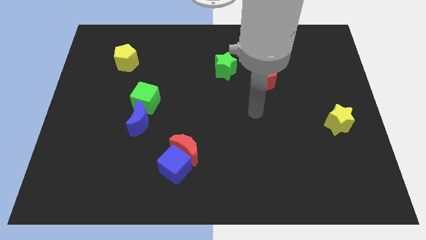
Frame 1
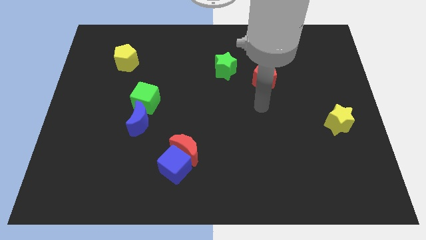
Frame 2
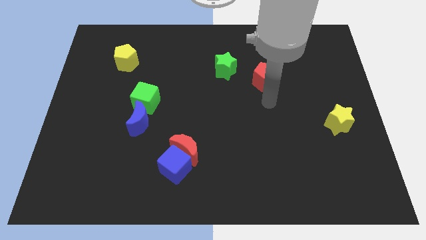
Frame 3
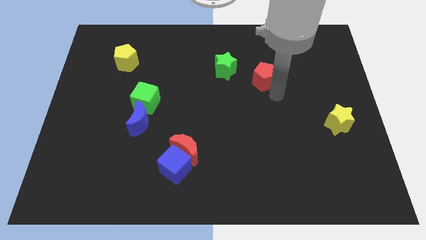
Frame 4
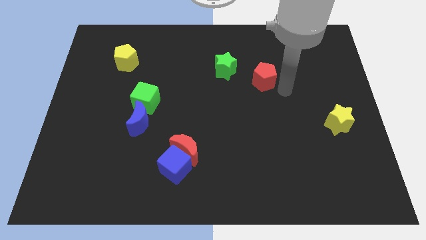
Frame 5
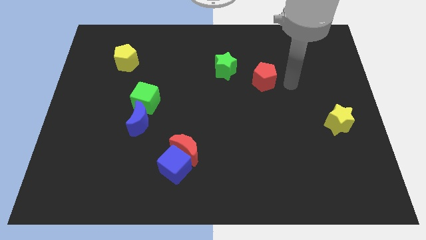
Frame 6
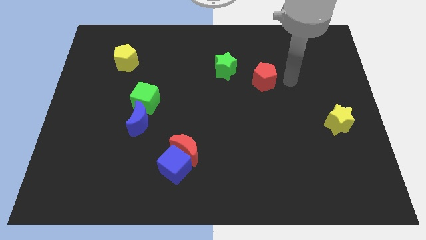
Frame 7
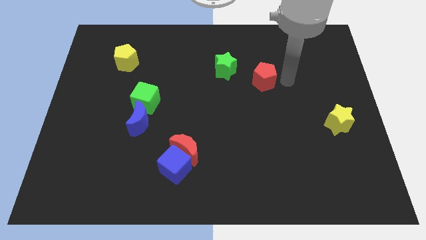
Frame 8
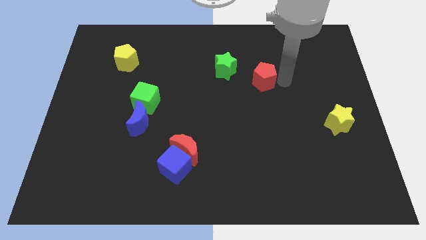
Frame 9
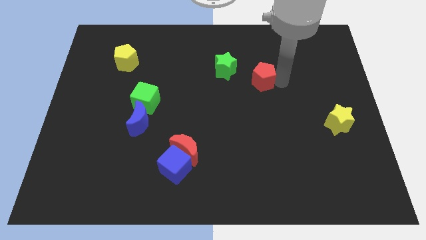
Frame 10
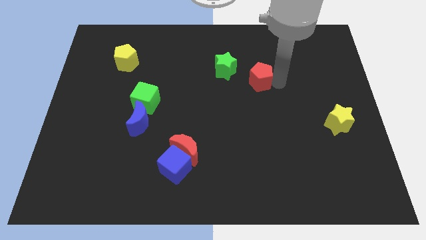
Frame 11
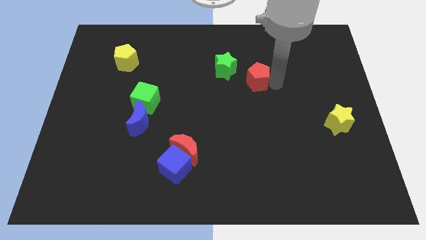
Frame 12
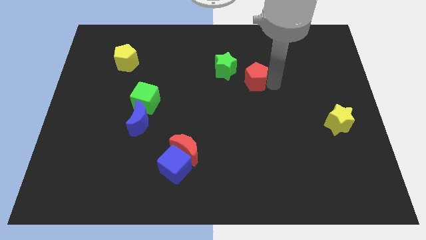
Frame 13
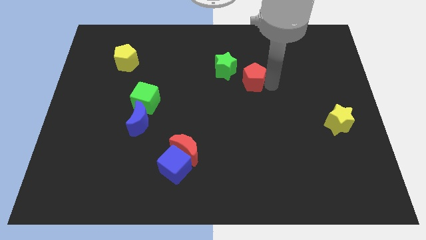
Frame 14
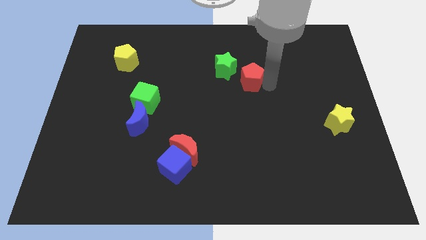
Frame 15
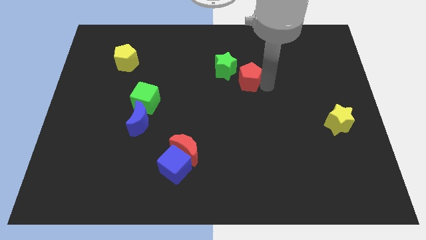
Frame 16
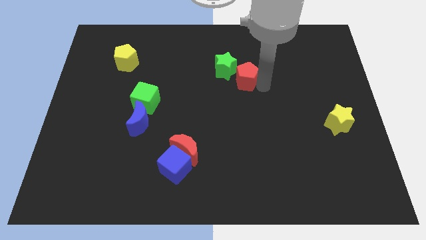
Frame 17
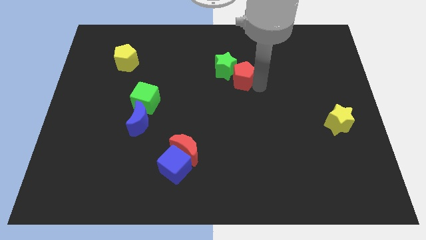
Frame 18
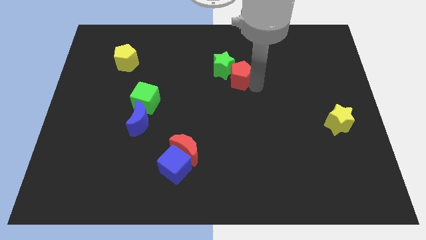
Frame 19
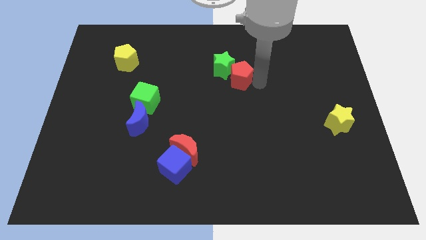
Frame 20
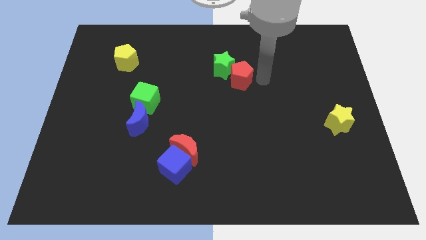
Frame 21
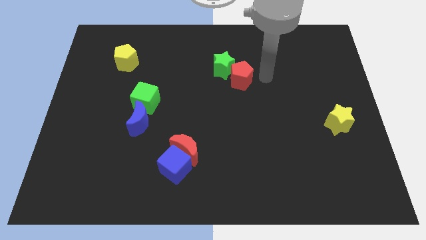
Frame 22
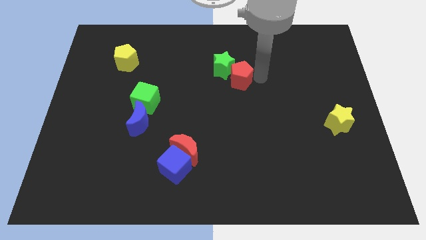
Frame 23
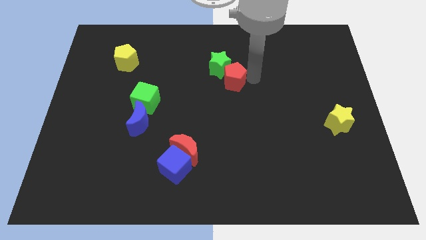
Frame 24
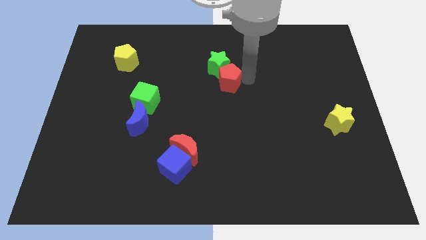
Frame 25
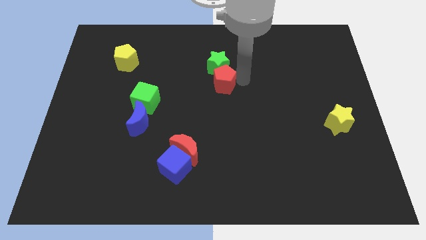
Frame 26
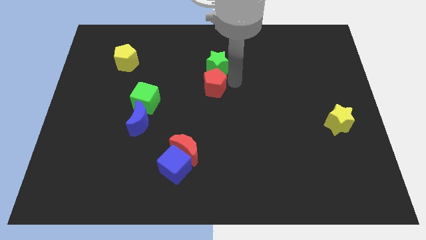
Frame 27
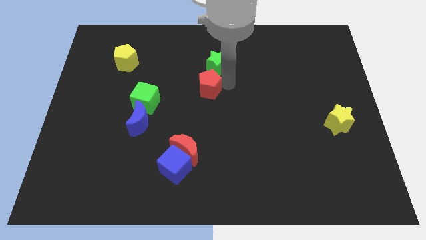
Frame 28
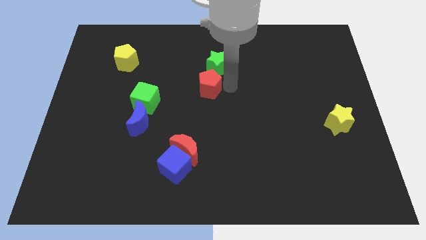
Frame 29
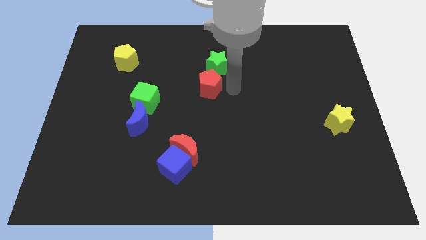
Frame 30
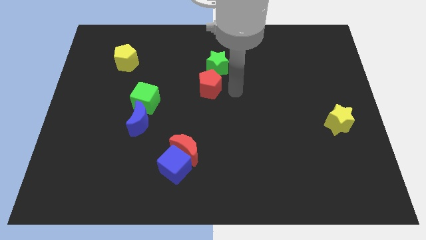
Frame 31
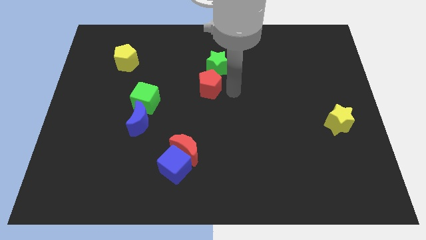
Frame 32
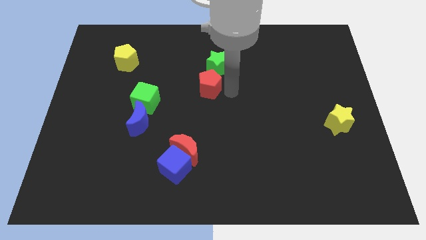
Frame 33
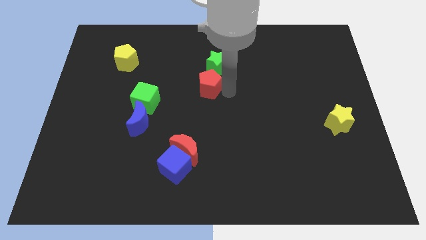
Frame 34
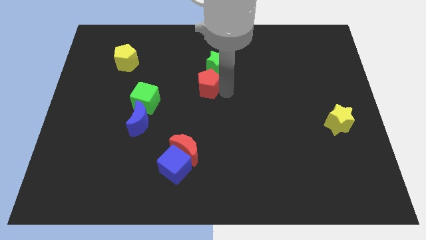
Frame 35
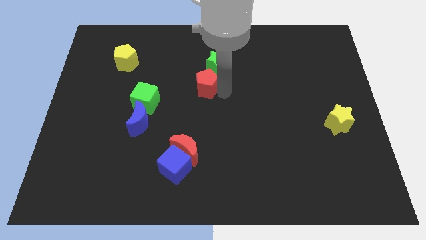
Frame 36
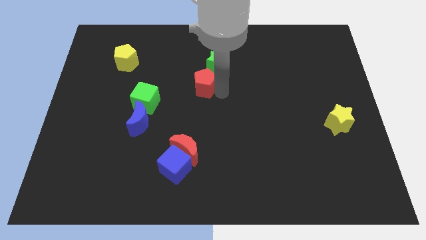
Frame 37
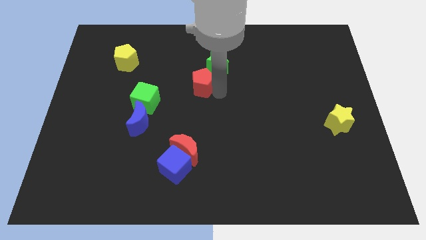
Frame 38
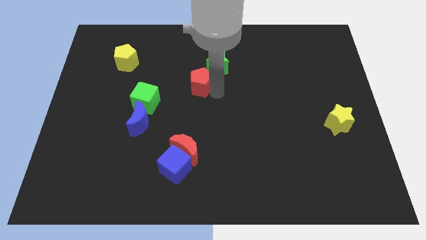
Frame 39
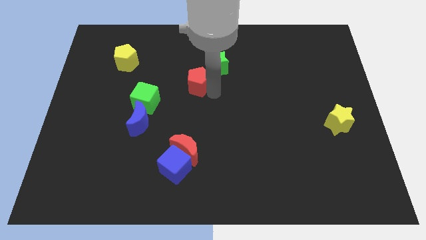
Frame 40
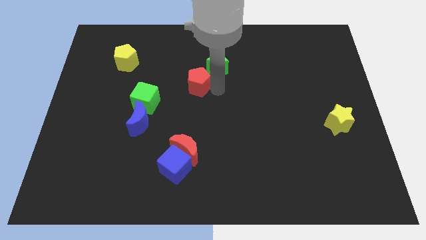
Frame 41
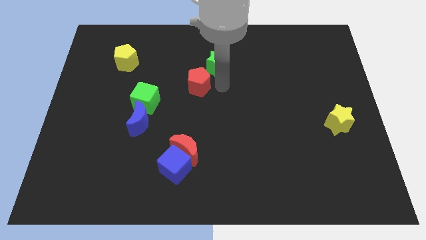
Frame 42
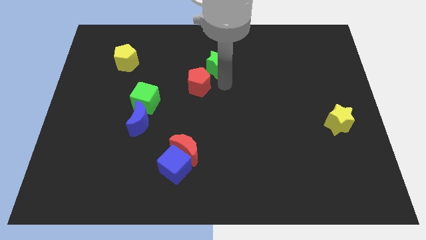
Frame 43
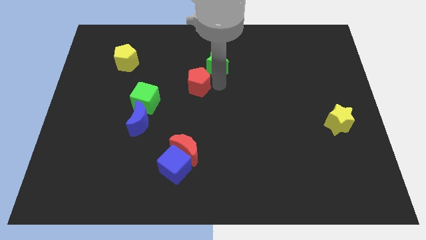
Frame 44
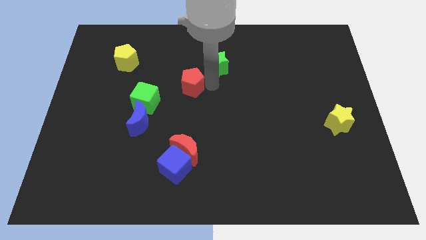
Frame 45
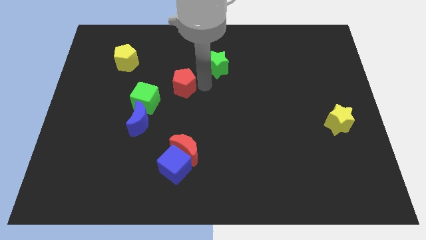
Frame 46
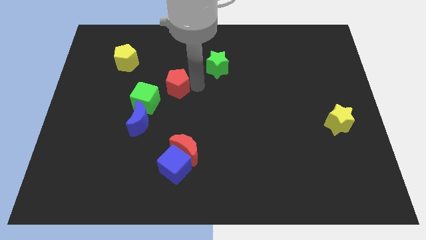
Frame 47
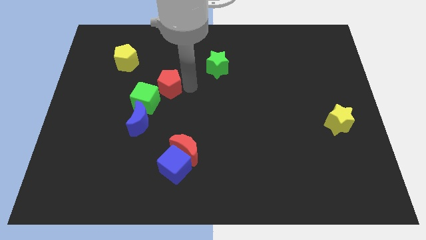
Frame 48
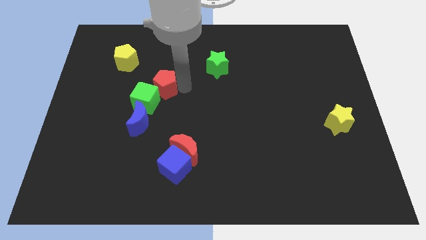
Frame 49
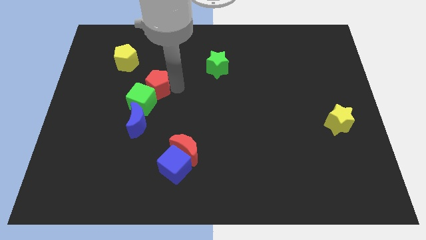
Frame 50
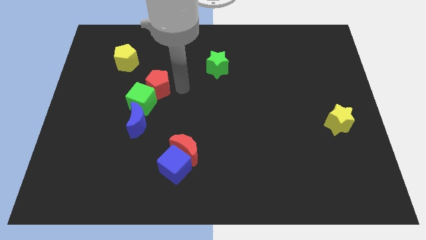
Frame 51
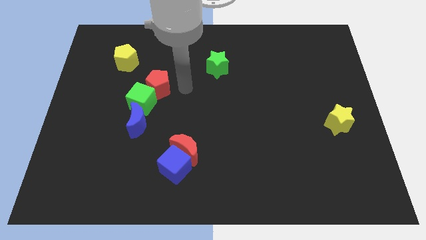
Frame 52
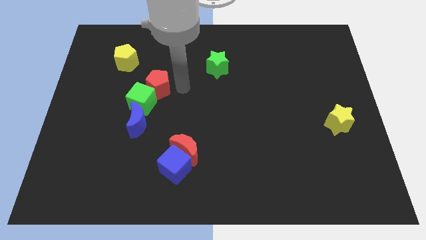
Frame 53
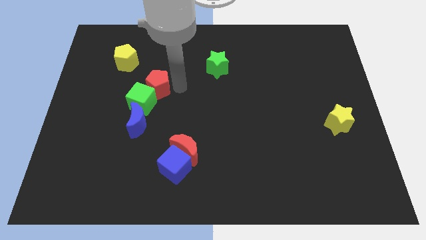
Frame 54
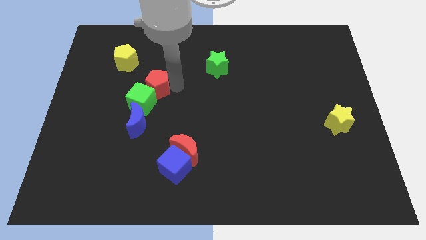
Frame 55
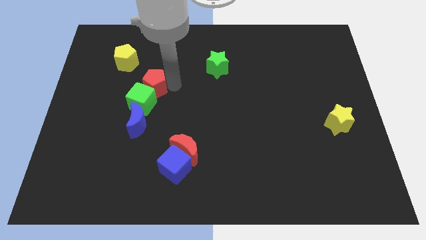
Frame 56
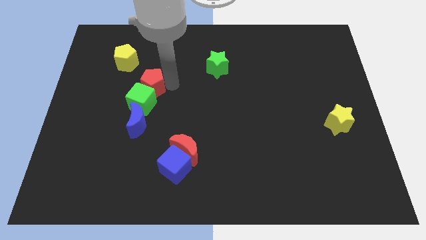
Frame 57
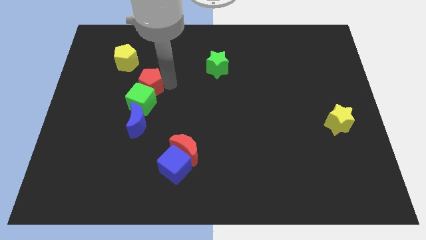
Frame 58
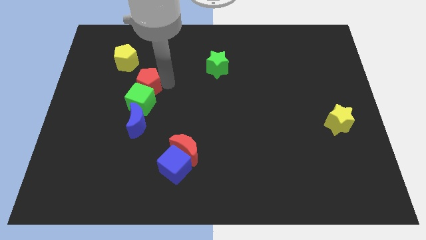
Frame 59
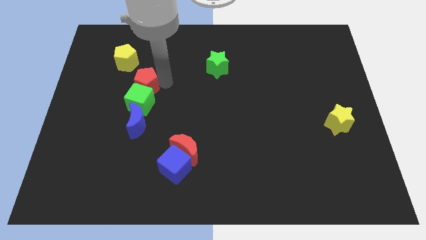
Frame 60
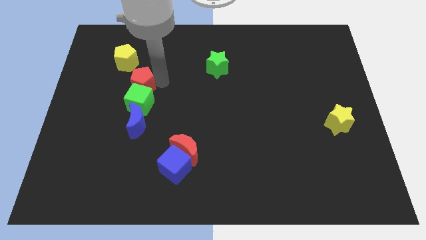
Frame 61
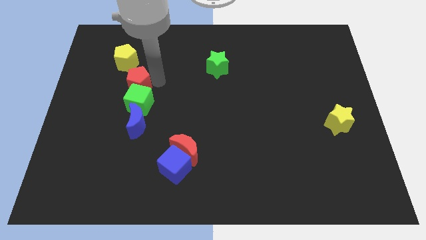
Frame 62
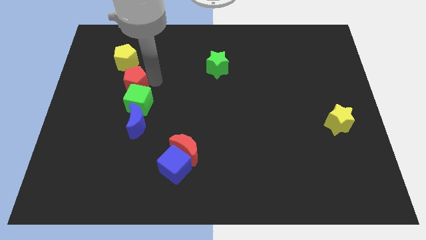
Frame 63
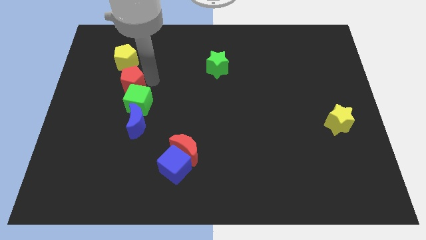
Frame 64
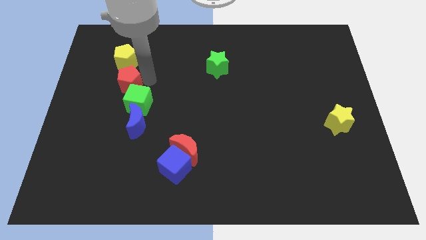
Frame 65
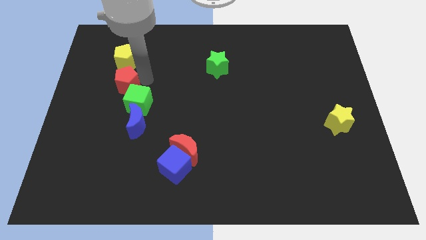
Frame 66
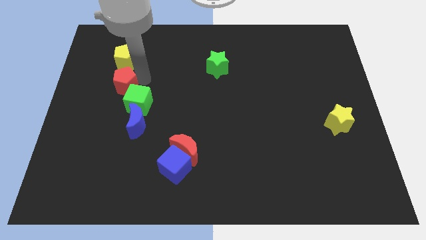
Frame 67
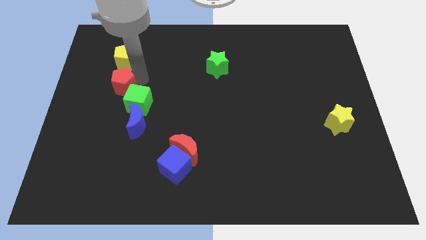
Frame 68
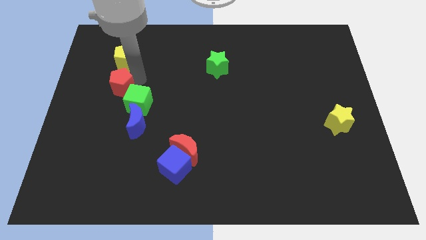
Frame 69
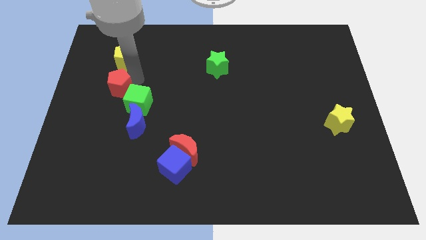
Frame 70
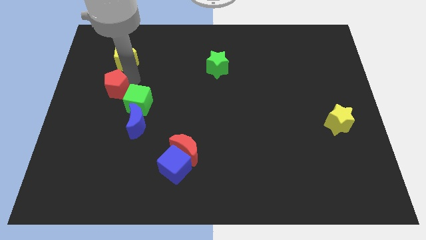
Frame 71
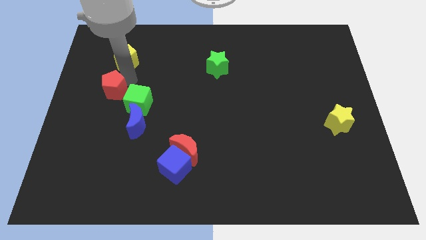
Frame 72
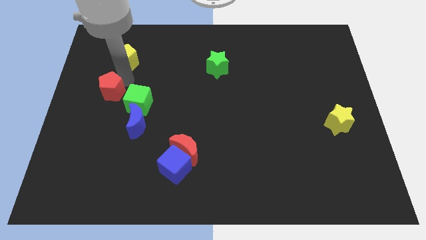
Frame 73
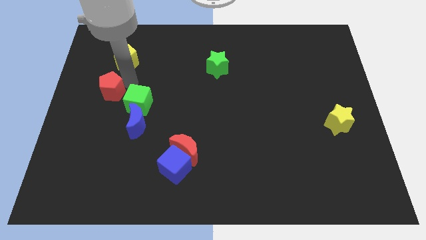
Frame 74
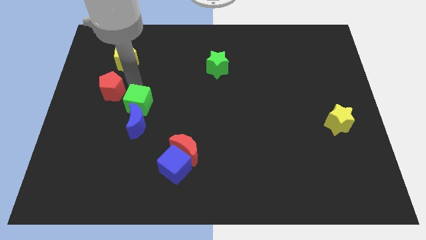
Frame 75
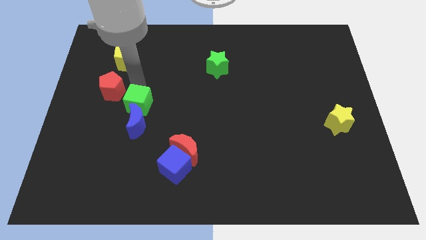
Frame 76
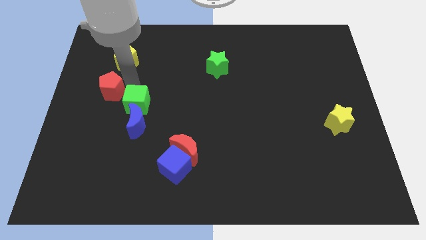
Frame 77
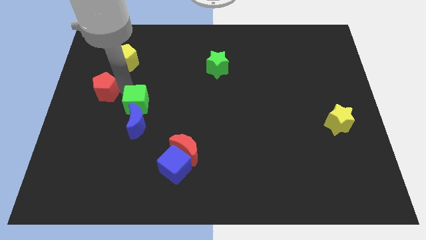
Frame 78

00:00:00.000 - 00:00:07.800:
move the red pentagon to the left side of the board
